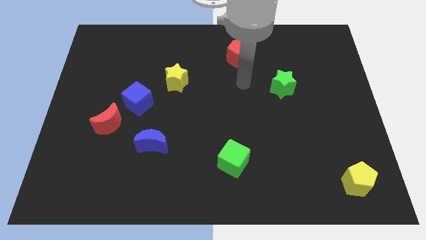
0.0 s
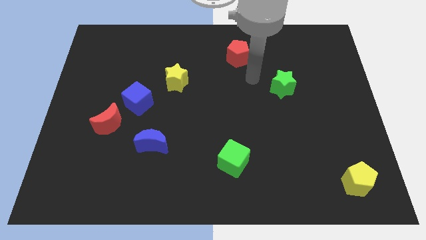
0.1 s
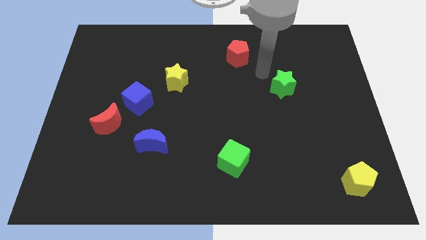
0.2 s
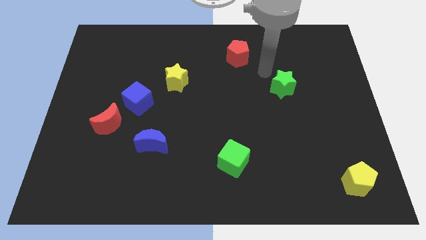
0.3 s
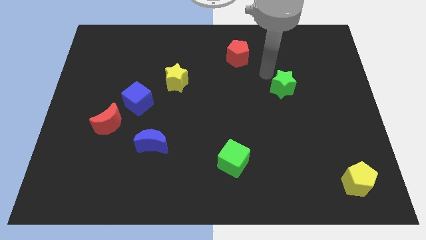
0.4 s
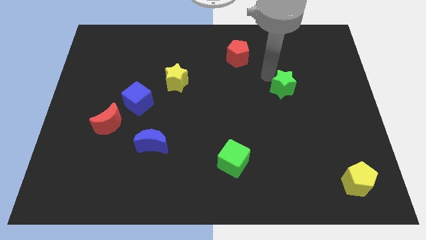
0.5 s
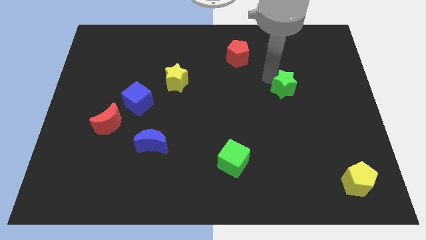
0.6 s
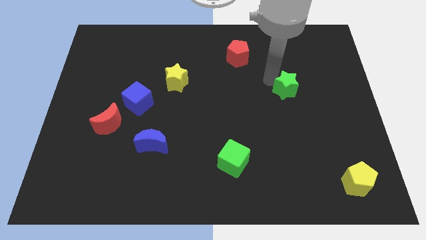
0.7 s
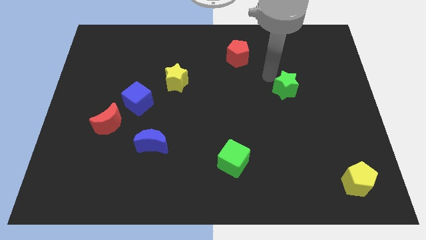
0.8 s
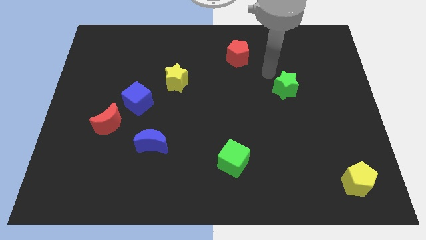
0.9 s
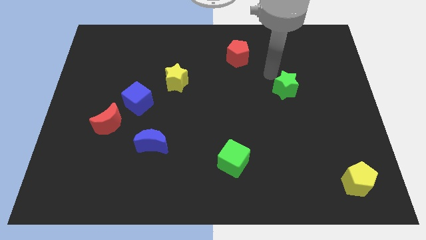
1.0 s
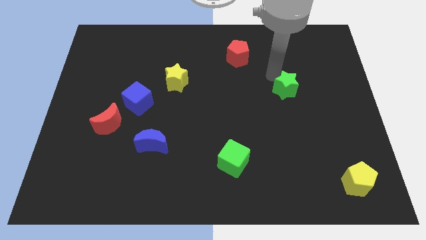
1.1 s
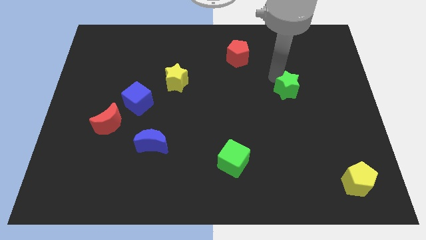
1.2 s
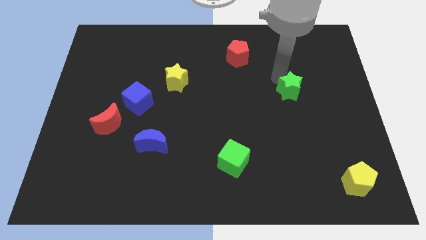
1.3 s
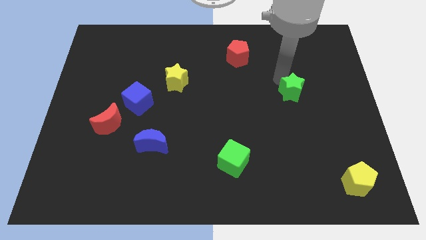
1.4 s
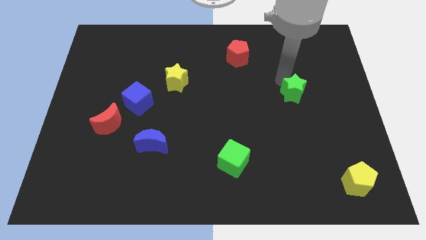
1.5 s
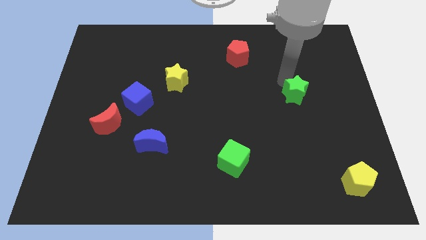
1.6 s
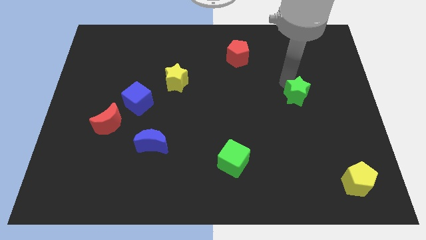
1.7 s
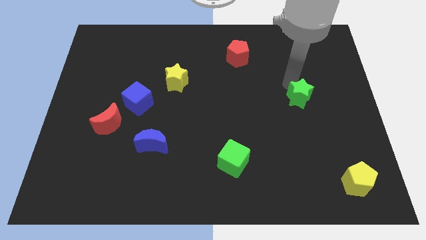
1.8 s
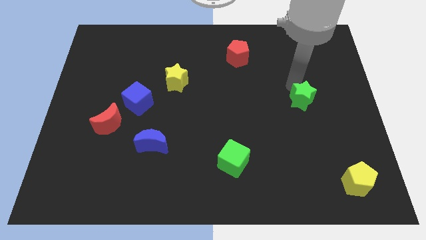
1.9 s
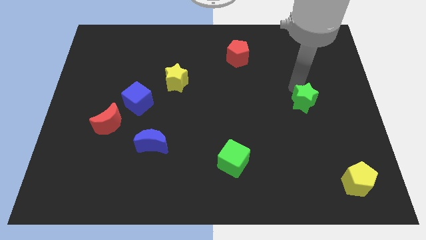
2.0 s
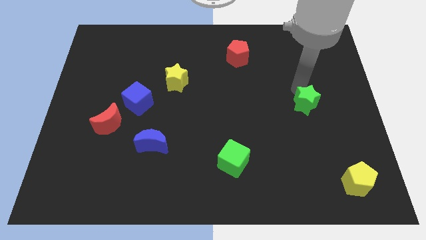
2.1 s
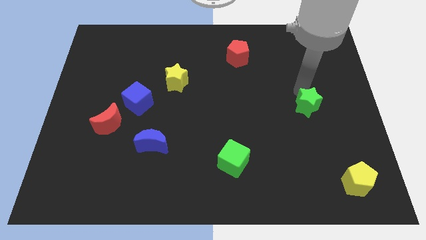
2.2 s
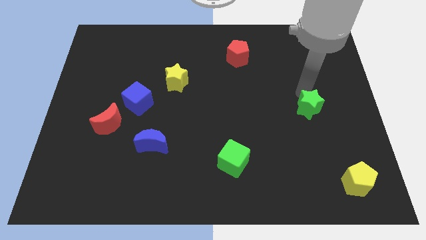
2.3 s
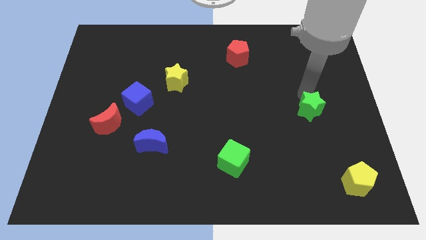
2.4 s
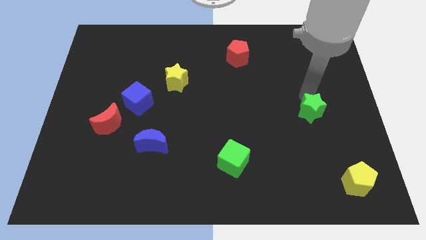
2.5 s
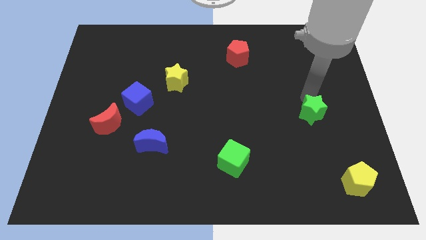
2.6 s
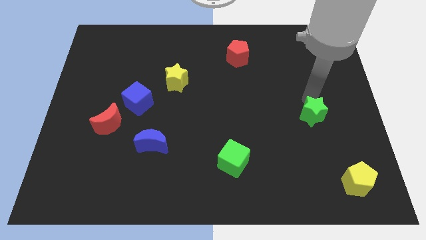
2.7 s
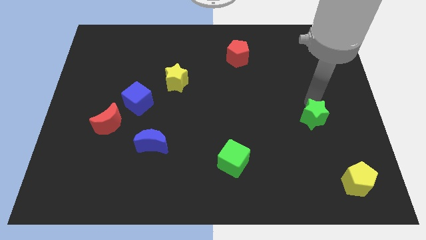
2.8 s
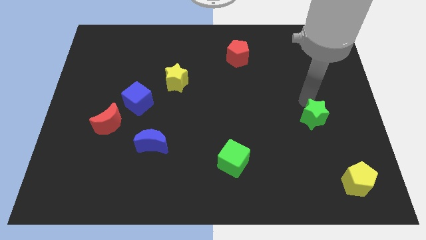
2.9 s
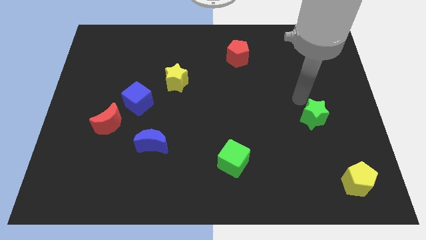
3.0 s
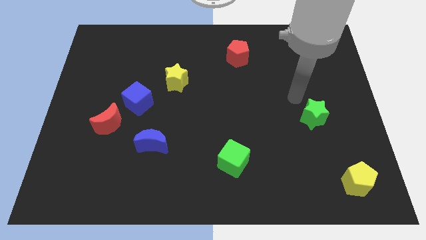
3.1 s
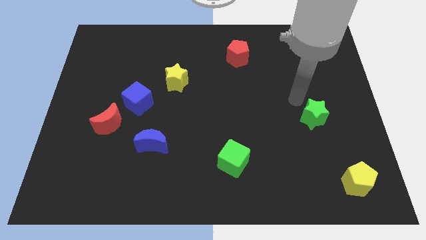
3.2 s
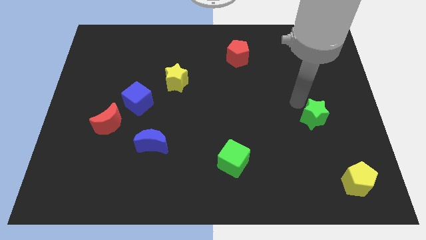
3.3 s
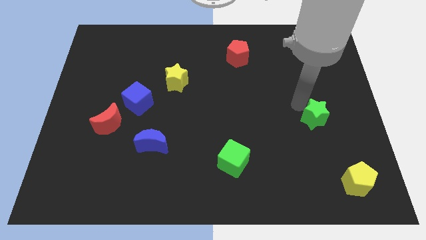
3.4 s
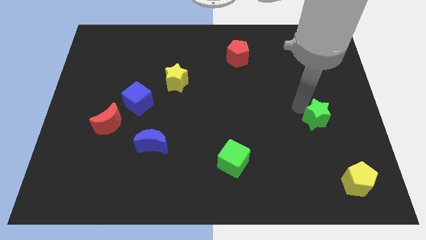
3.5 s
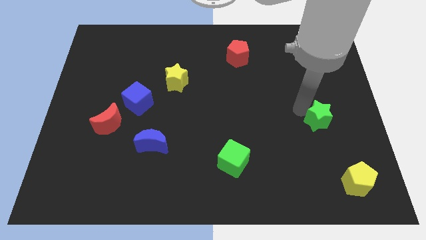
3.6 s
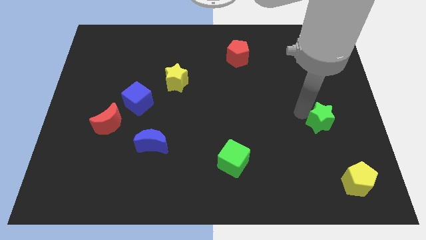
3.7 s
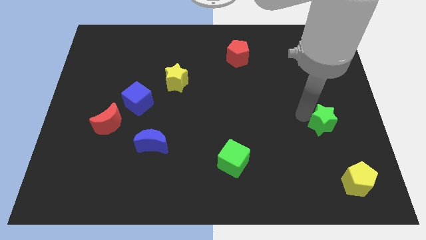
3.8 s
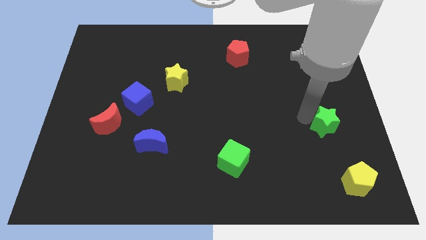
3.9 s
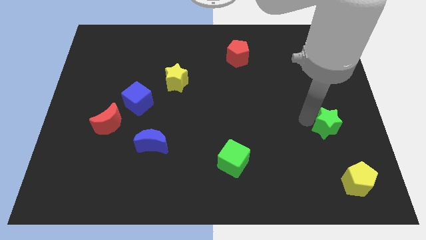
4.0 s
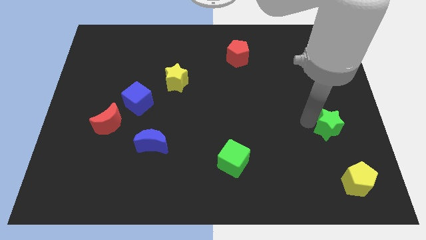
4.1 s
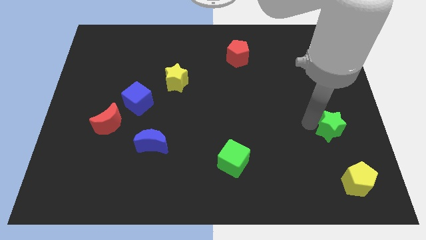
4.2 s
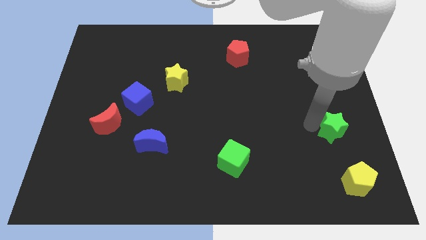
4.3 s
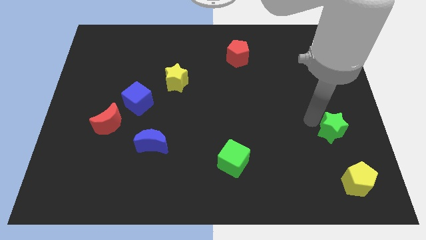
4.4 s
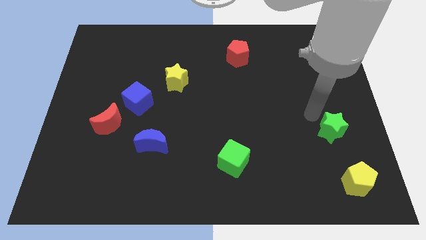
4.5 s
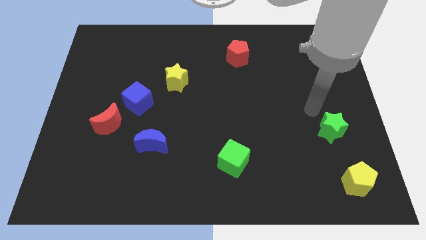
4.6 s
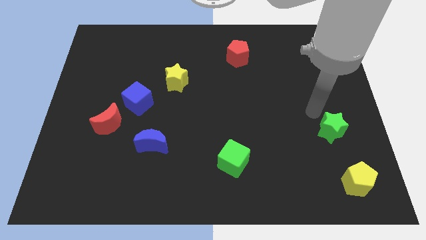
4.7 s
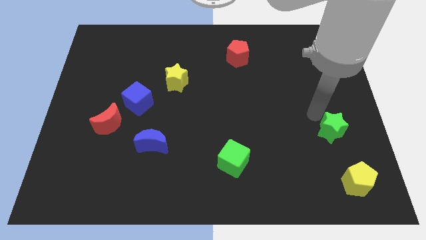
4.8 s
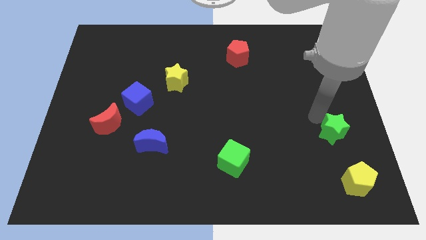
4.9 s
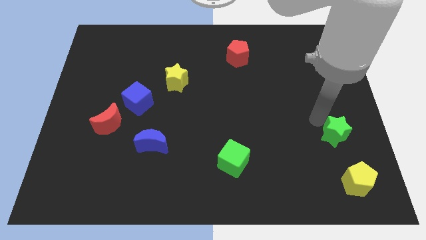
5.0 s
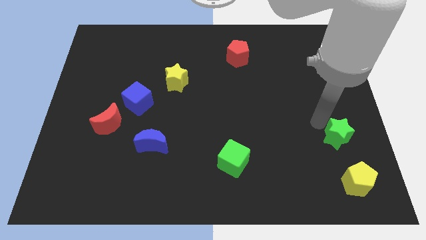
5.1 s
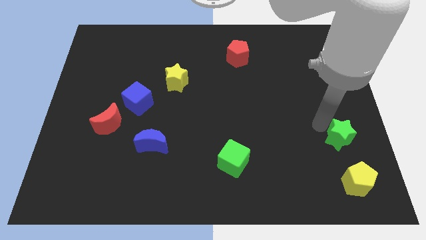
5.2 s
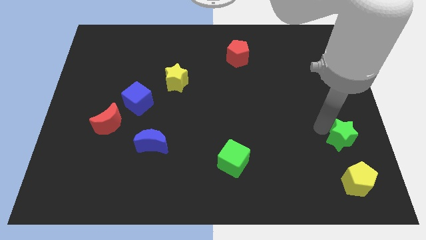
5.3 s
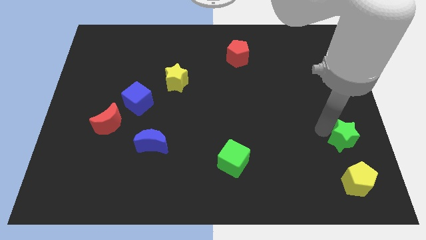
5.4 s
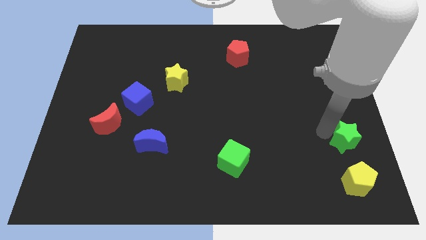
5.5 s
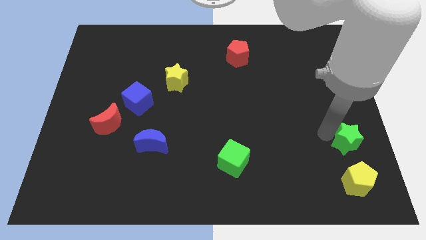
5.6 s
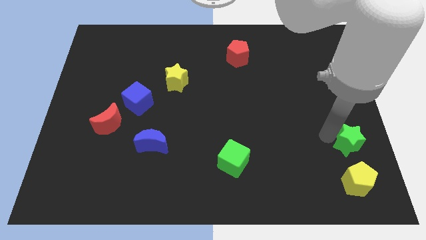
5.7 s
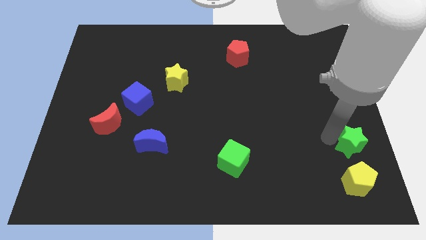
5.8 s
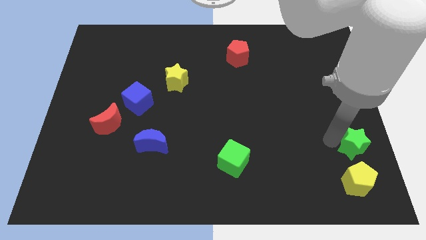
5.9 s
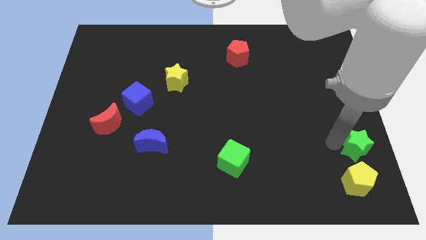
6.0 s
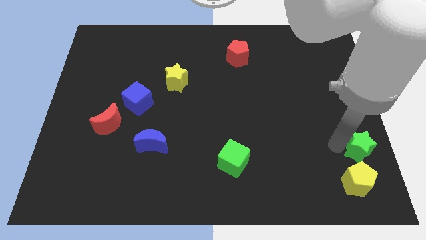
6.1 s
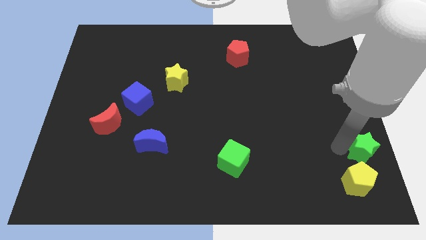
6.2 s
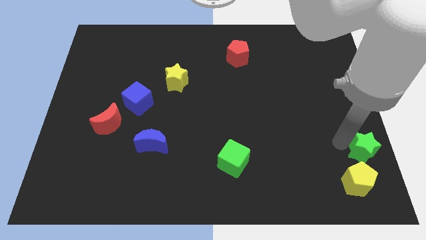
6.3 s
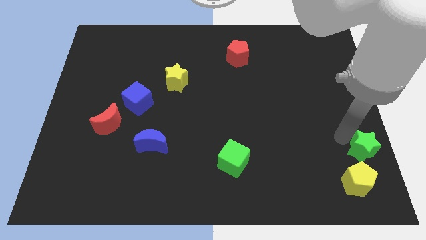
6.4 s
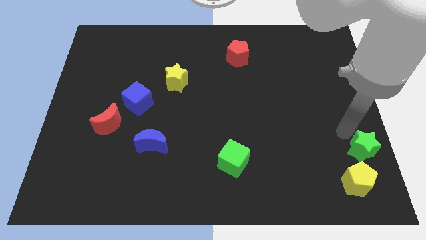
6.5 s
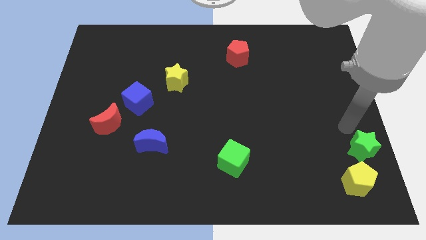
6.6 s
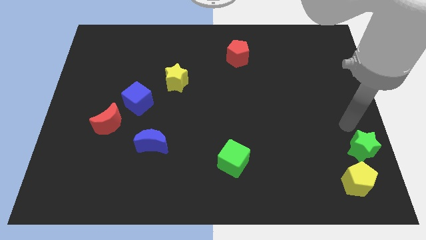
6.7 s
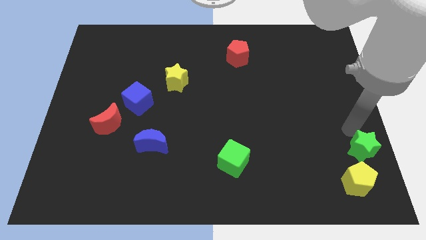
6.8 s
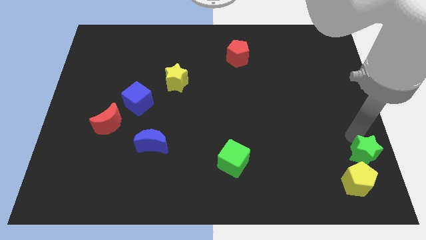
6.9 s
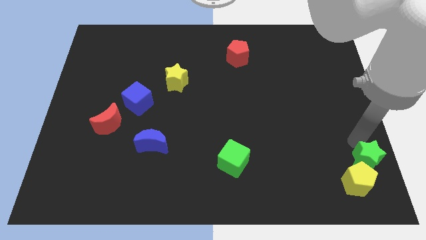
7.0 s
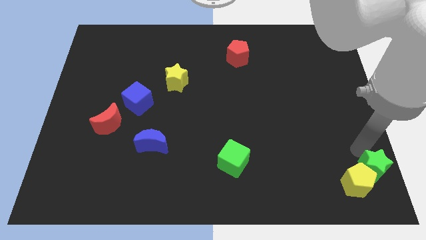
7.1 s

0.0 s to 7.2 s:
move the green star to the bottom right

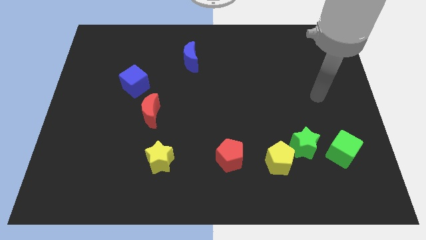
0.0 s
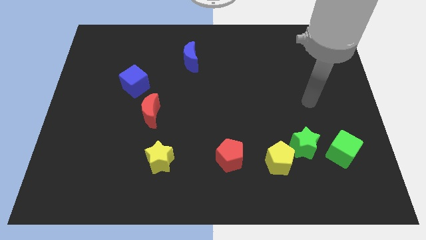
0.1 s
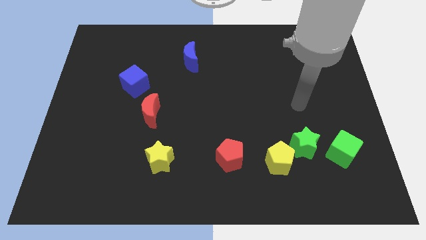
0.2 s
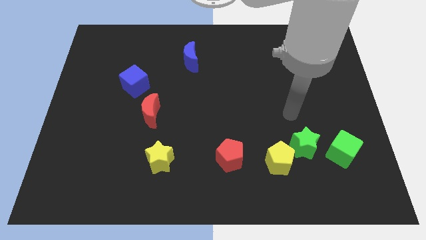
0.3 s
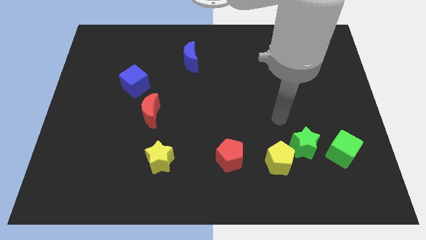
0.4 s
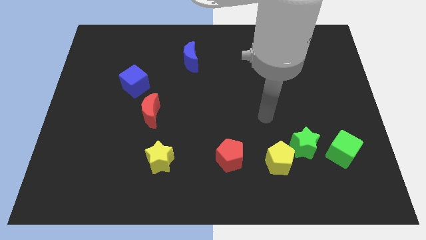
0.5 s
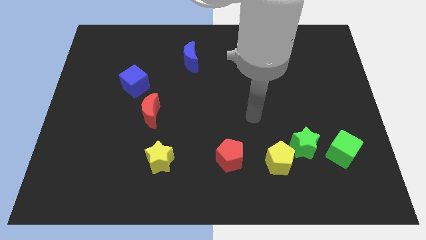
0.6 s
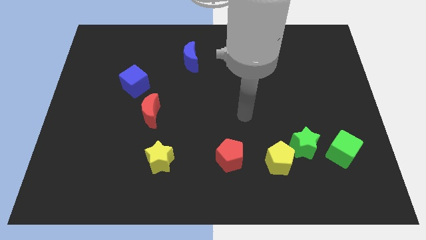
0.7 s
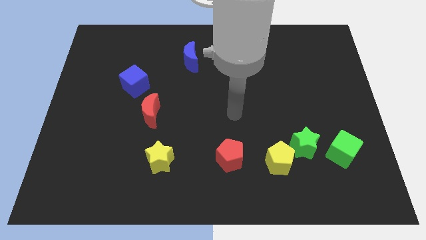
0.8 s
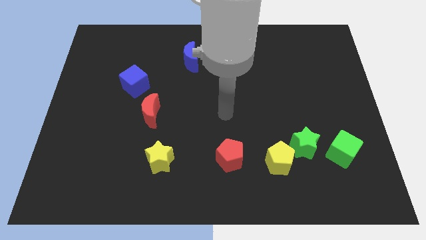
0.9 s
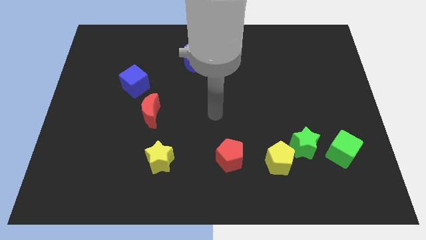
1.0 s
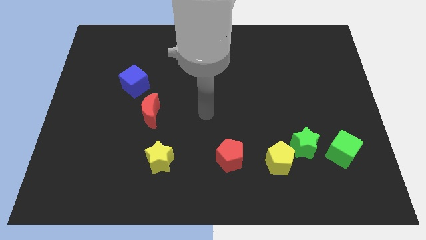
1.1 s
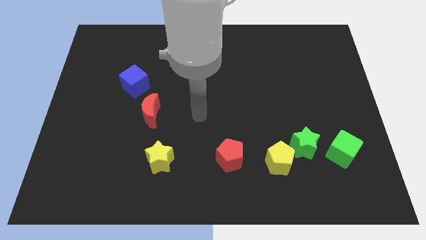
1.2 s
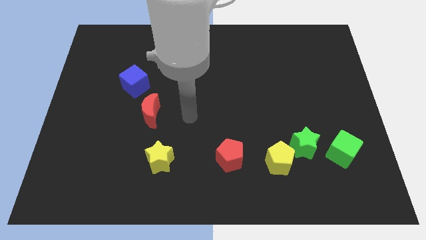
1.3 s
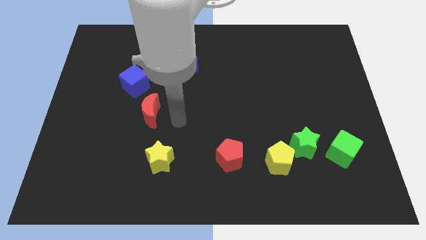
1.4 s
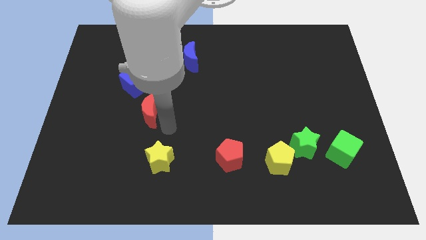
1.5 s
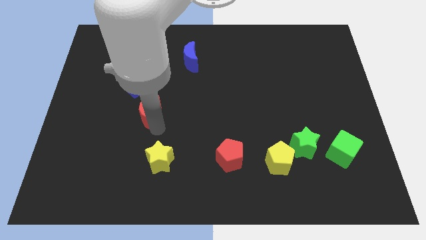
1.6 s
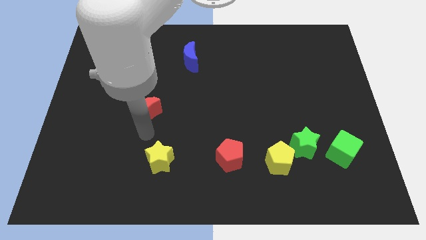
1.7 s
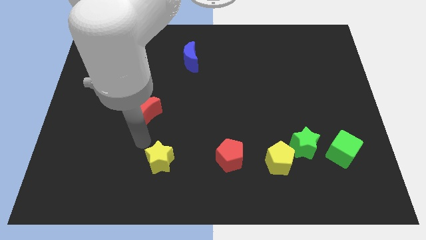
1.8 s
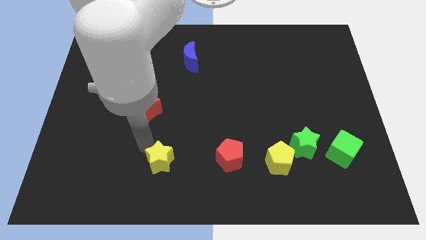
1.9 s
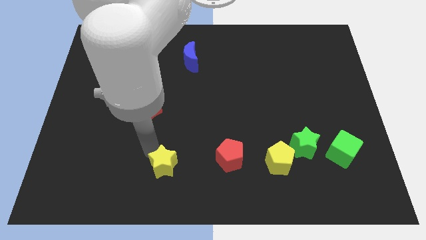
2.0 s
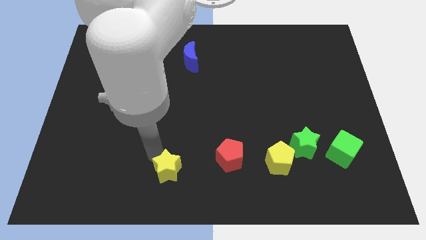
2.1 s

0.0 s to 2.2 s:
slide the yellow star to the bottom
